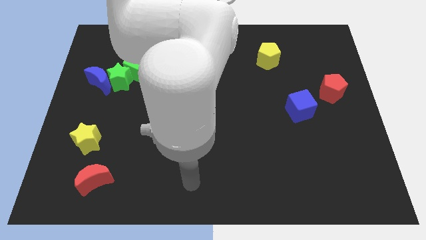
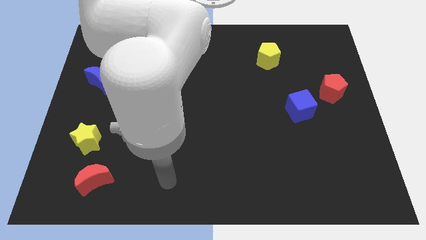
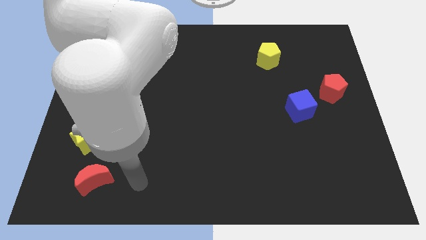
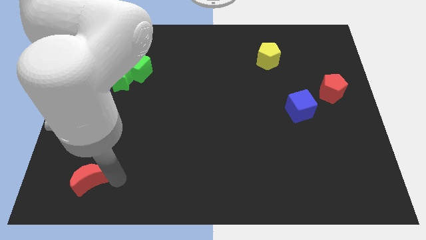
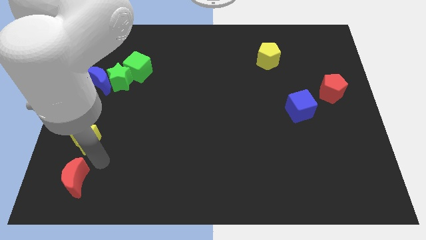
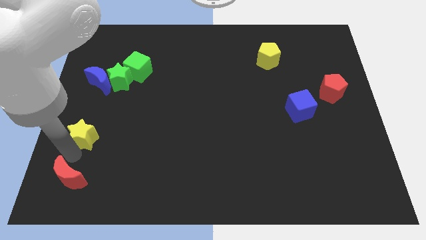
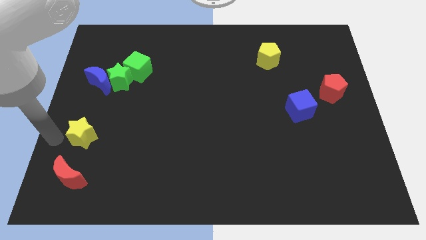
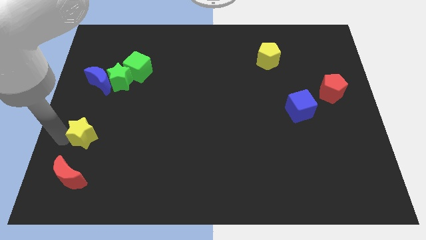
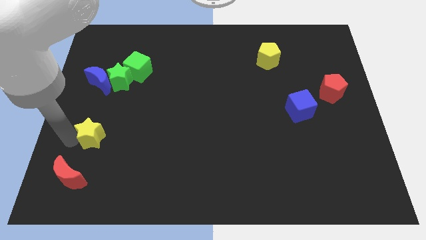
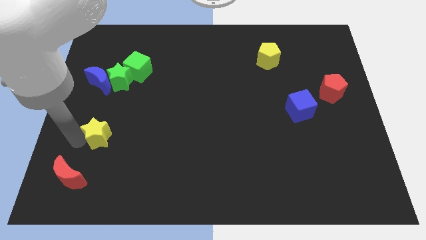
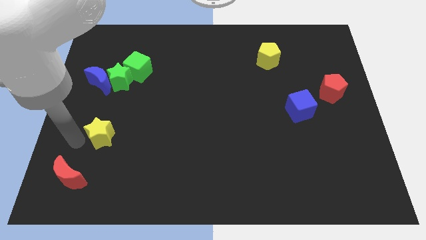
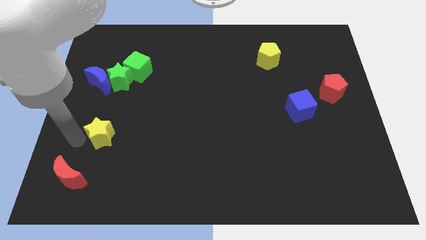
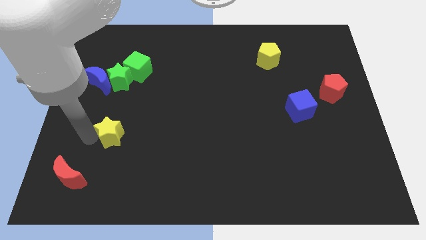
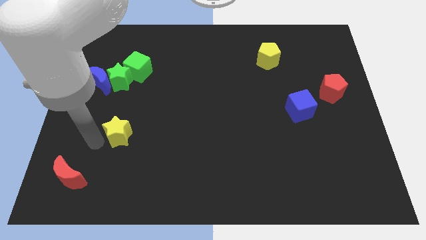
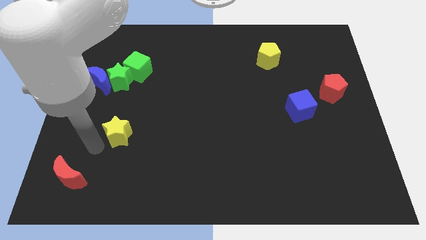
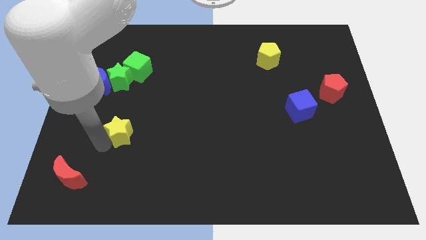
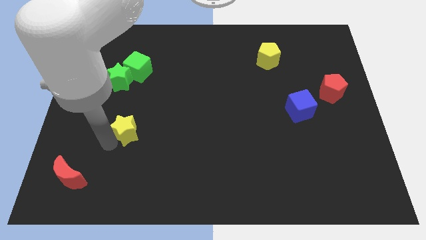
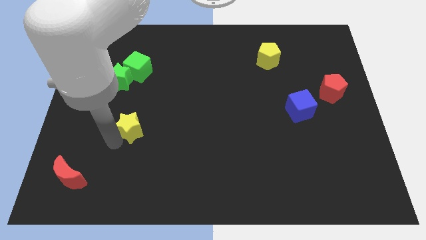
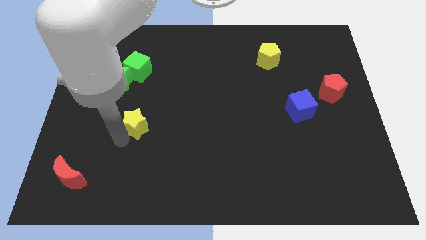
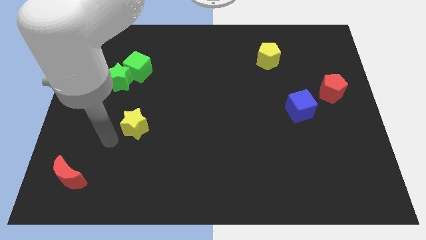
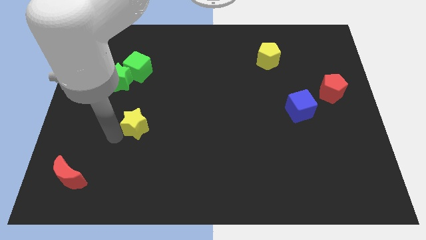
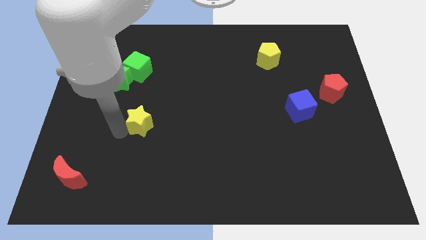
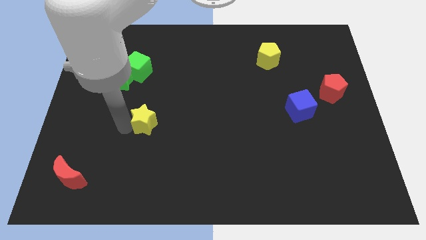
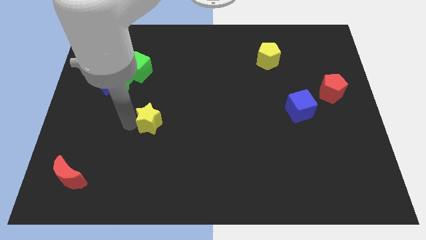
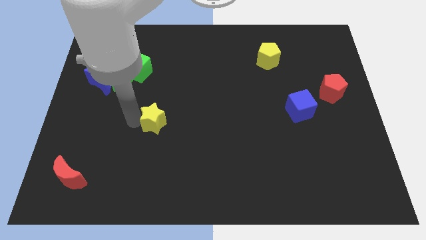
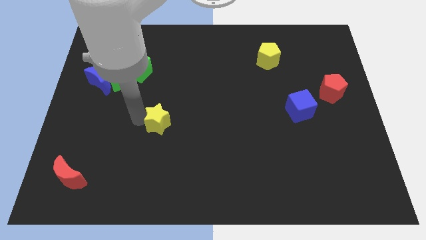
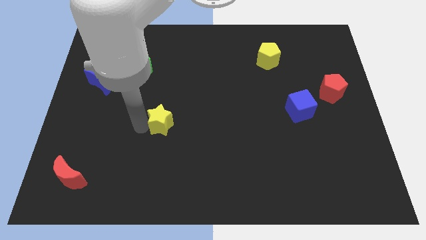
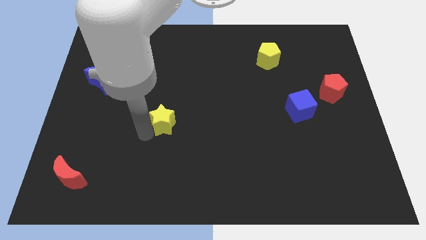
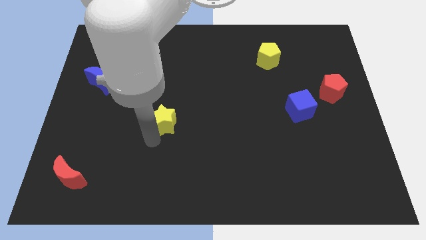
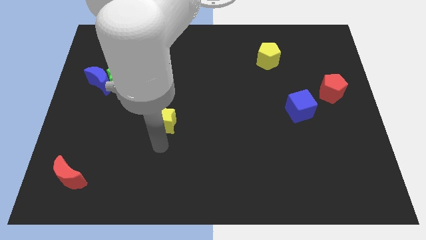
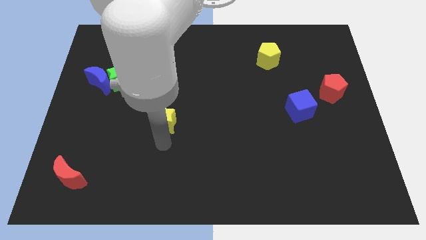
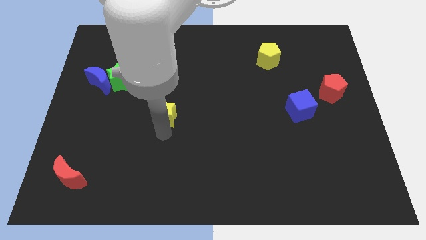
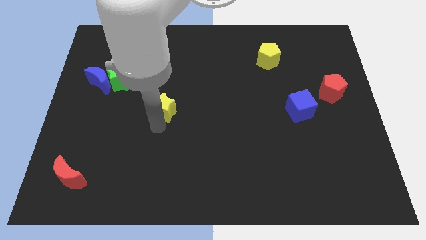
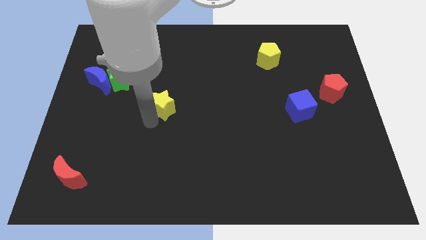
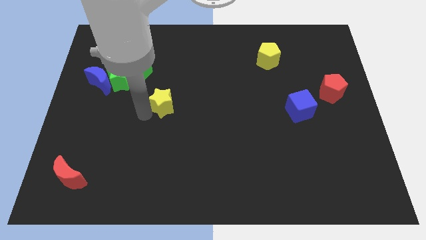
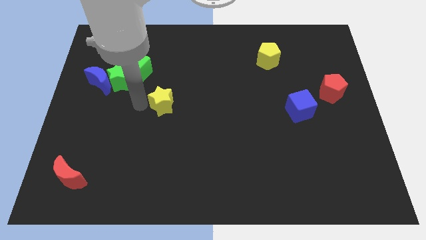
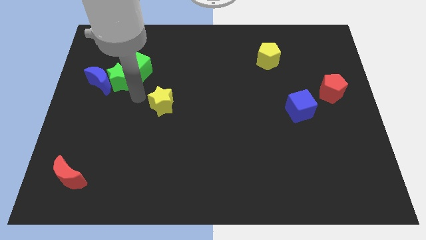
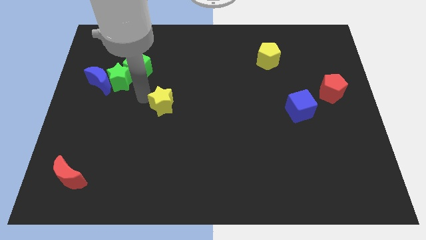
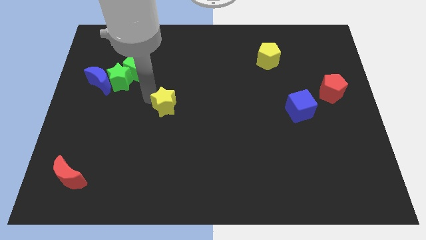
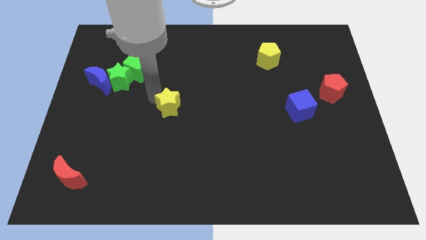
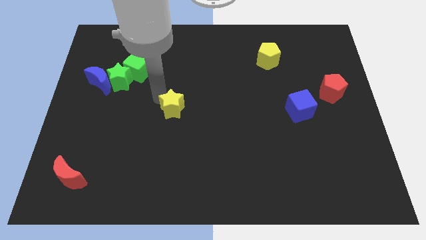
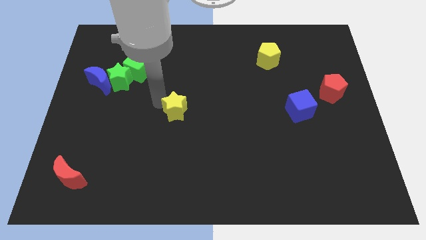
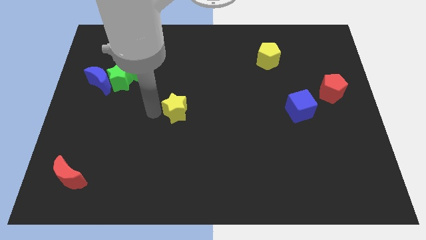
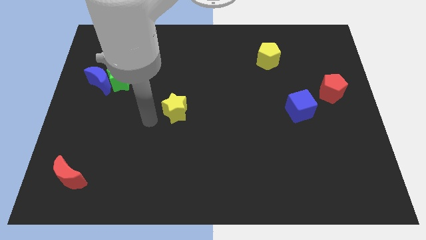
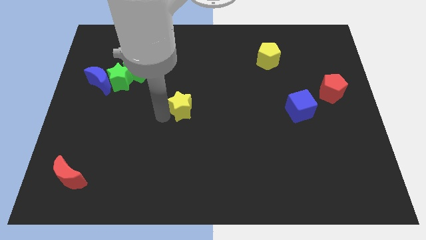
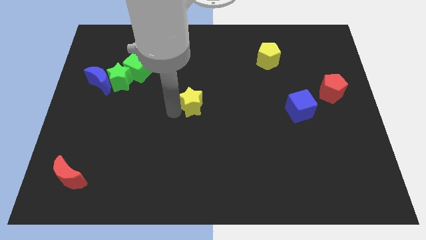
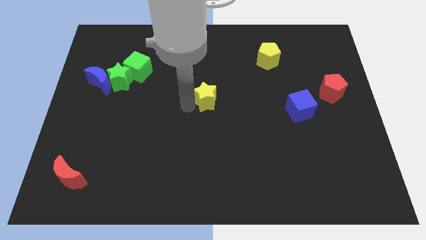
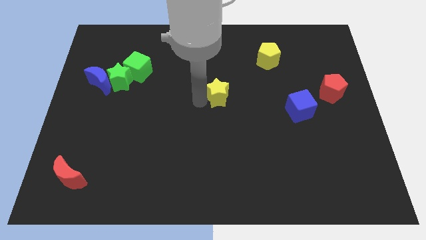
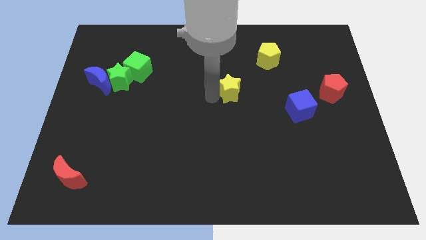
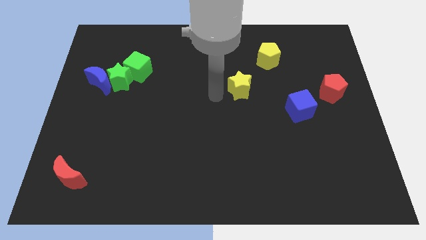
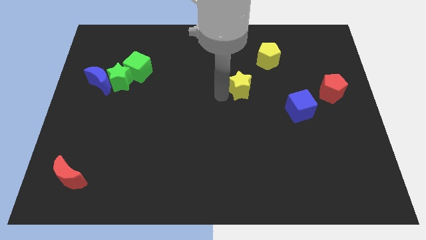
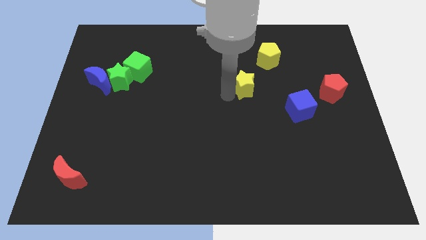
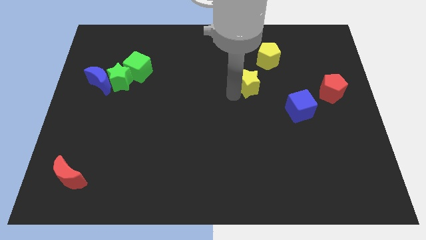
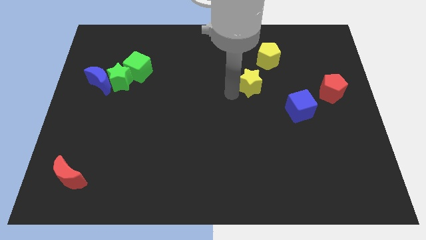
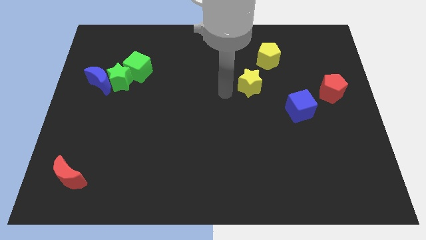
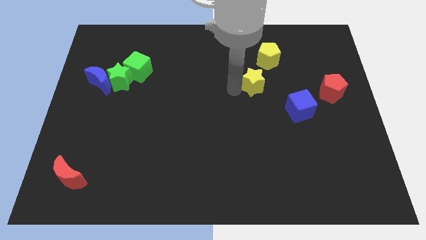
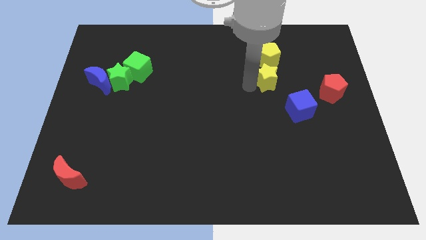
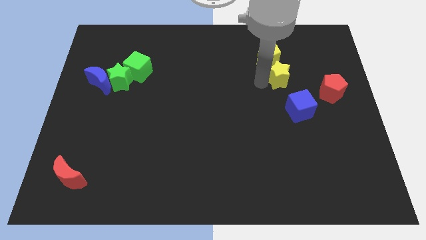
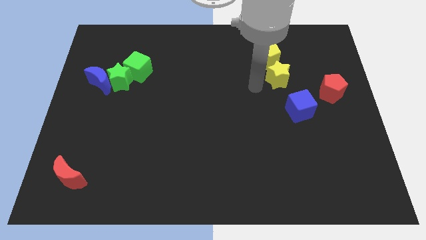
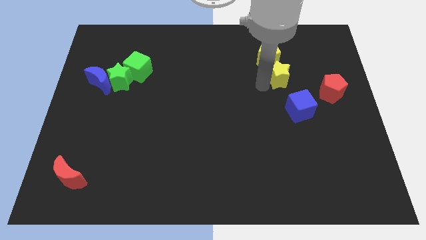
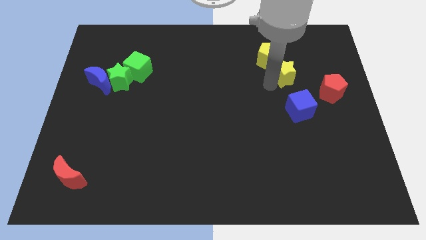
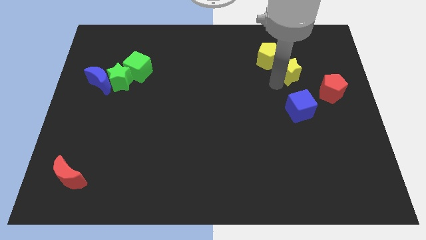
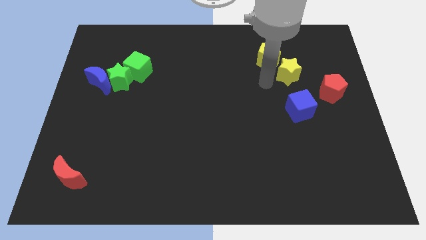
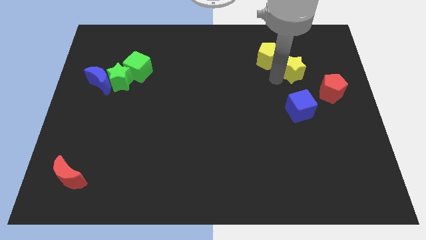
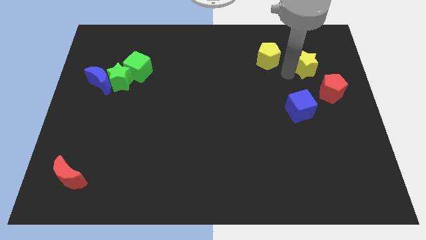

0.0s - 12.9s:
slide the yellow star to the top of the red pentagon
